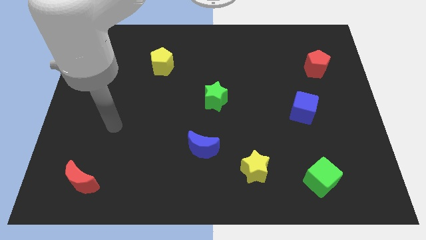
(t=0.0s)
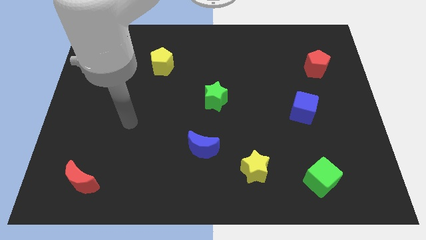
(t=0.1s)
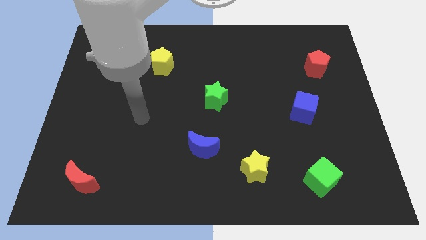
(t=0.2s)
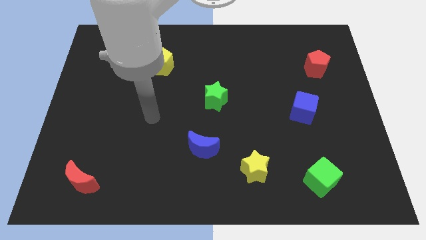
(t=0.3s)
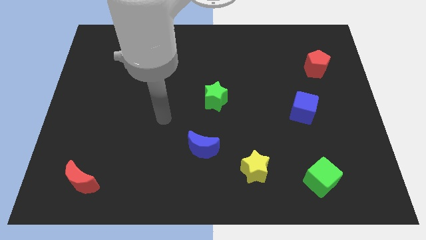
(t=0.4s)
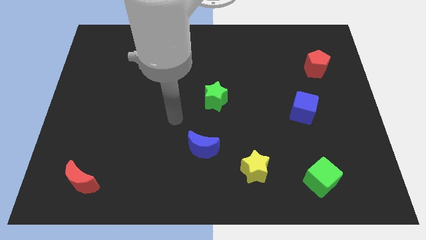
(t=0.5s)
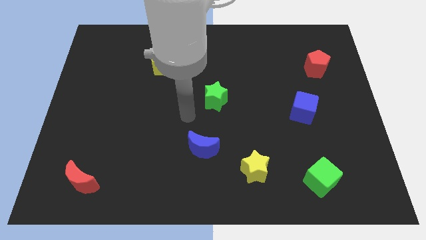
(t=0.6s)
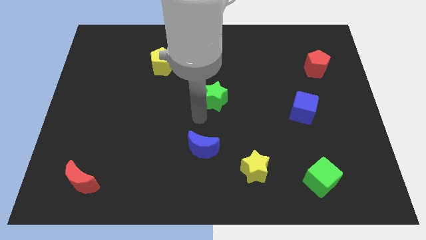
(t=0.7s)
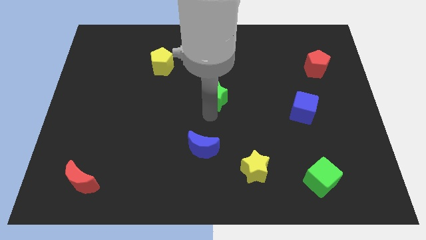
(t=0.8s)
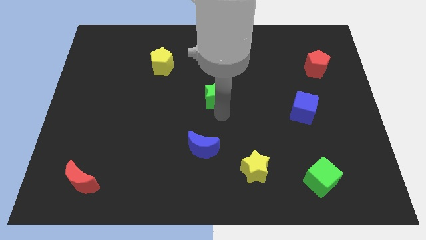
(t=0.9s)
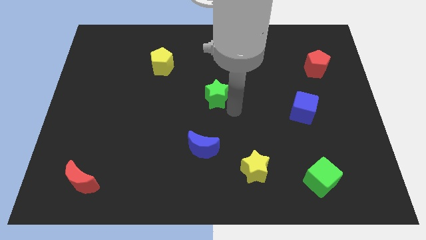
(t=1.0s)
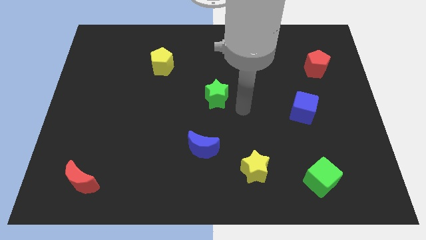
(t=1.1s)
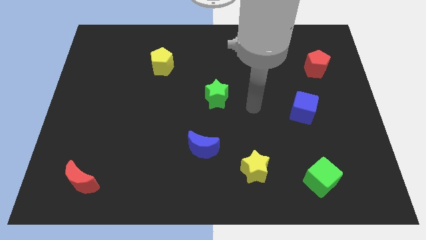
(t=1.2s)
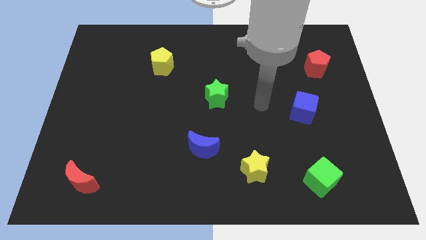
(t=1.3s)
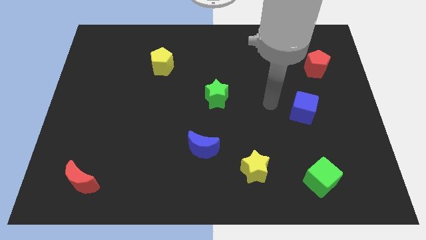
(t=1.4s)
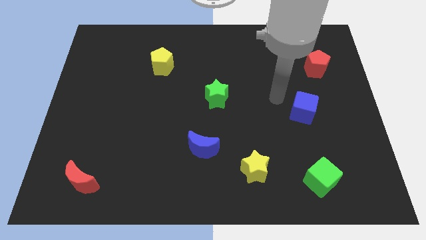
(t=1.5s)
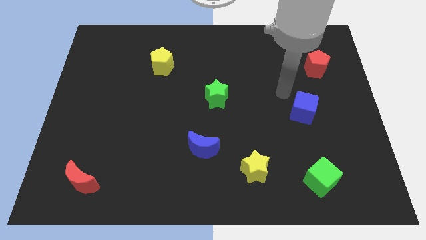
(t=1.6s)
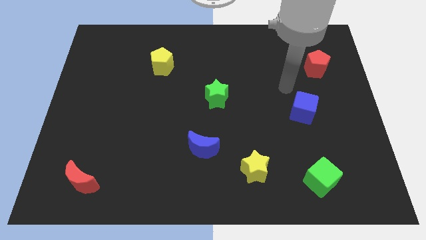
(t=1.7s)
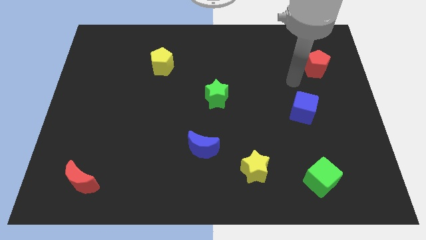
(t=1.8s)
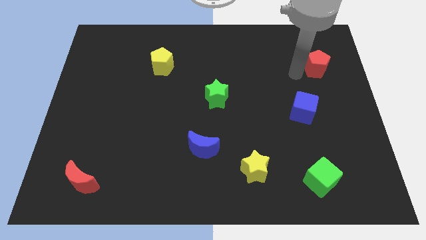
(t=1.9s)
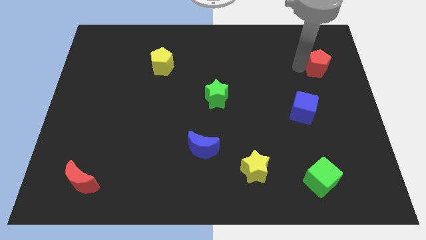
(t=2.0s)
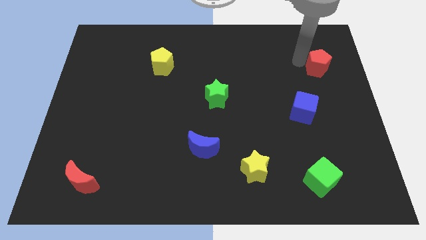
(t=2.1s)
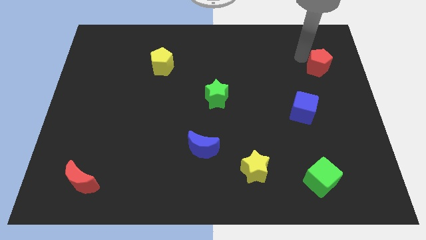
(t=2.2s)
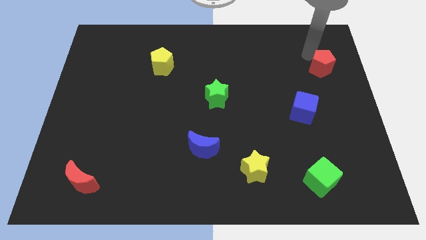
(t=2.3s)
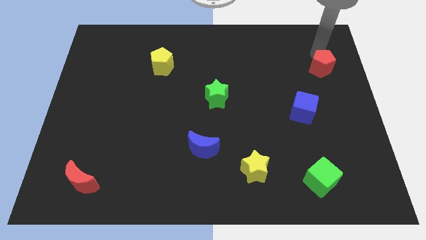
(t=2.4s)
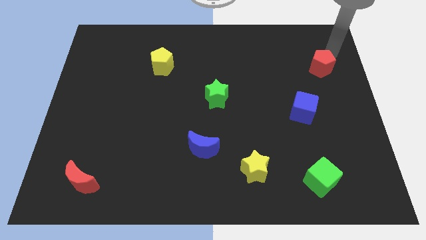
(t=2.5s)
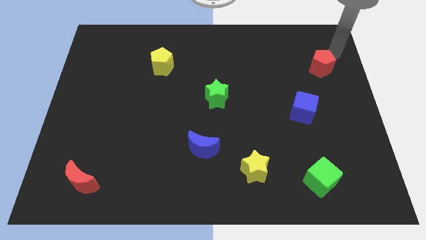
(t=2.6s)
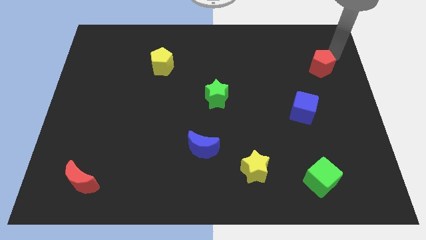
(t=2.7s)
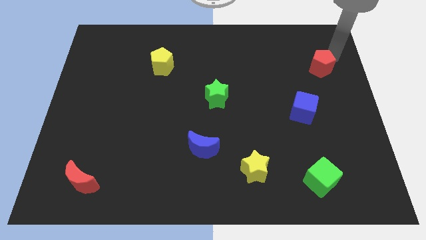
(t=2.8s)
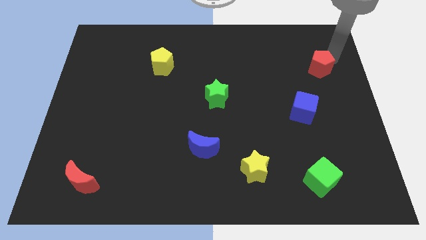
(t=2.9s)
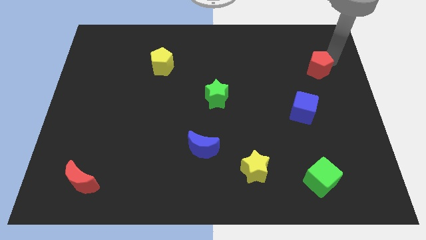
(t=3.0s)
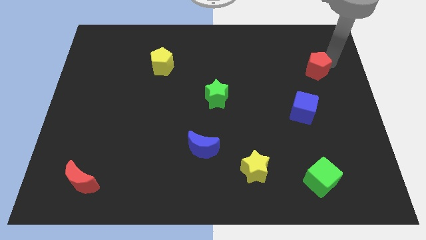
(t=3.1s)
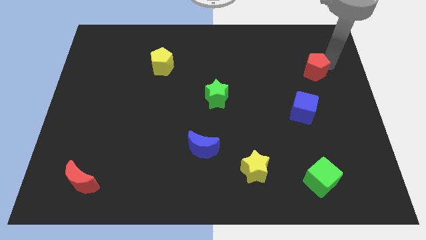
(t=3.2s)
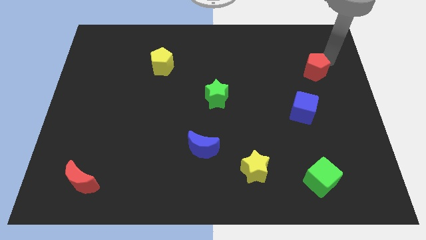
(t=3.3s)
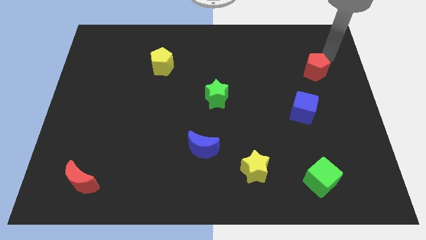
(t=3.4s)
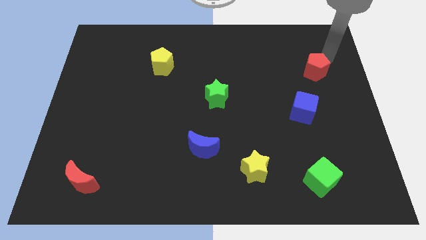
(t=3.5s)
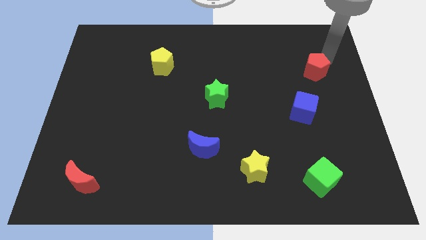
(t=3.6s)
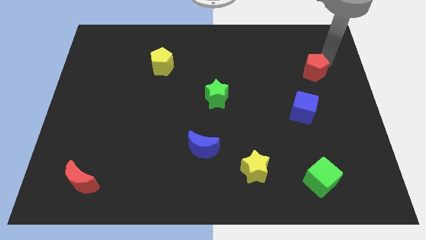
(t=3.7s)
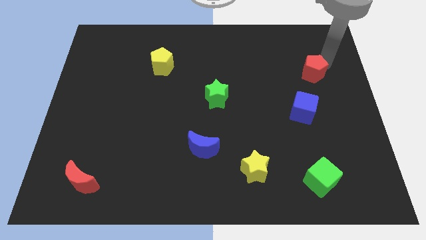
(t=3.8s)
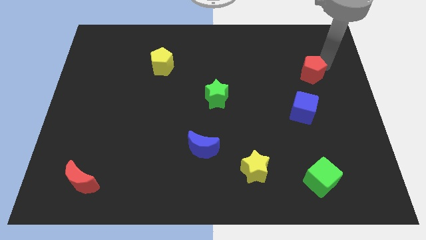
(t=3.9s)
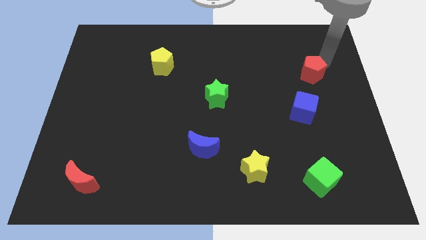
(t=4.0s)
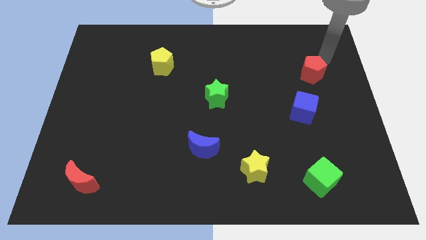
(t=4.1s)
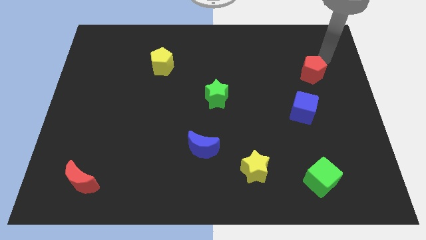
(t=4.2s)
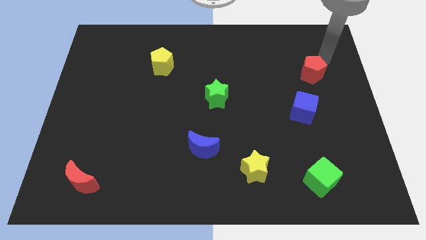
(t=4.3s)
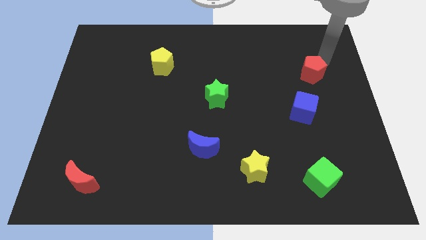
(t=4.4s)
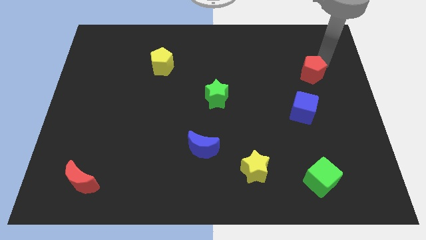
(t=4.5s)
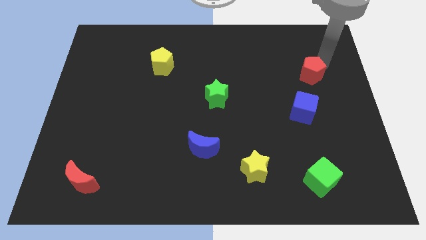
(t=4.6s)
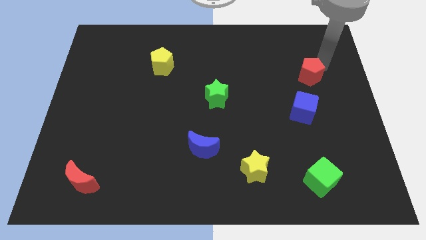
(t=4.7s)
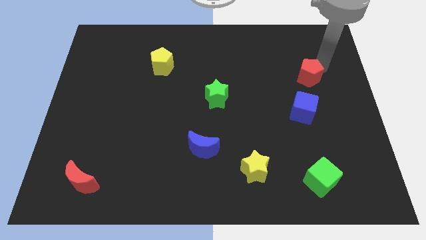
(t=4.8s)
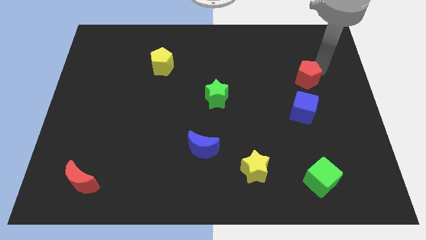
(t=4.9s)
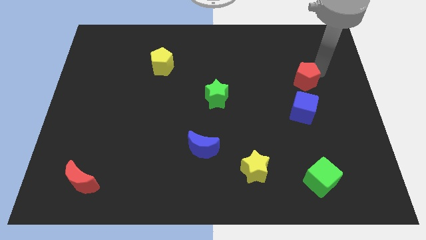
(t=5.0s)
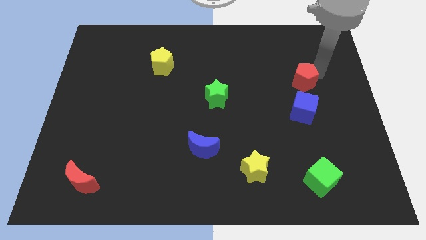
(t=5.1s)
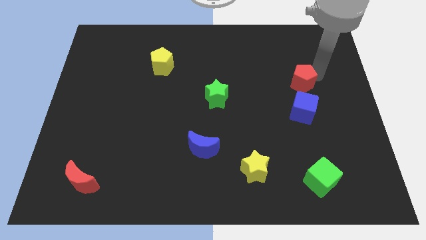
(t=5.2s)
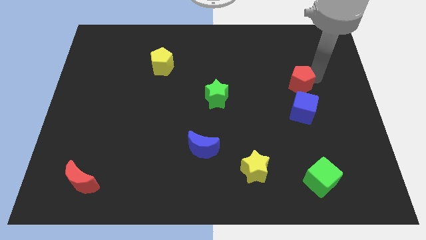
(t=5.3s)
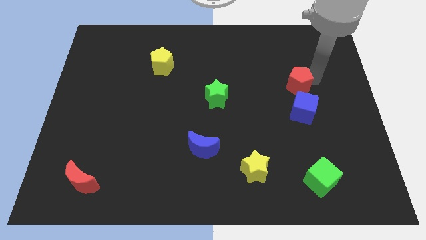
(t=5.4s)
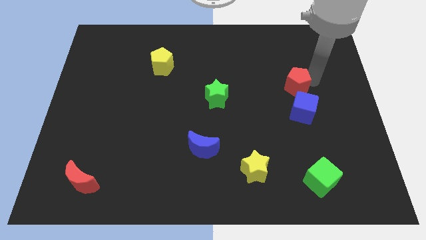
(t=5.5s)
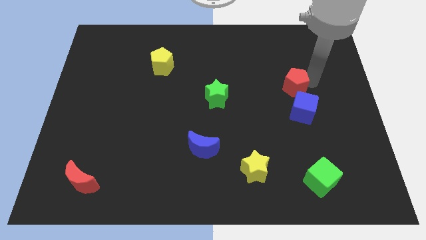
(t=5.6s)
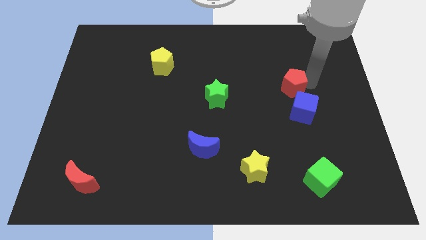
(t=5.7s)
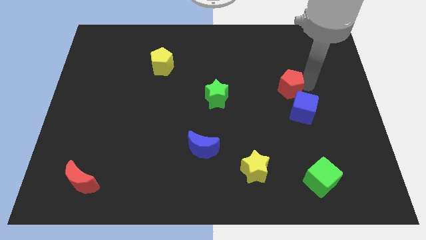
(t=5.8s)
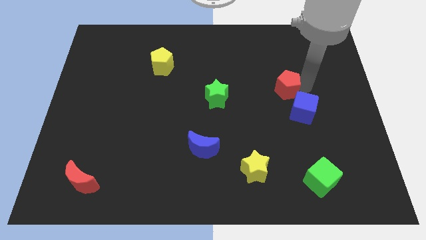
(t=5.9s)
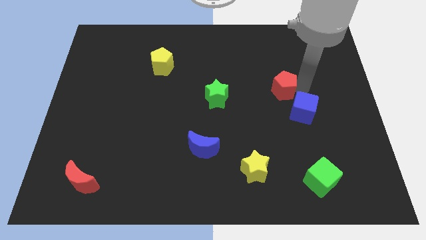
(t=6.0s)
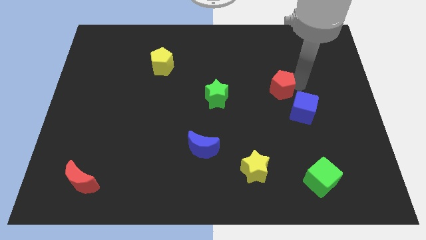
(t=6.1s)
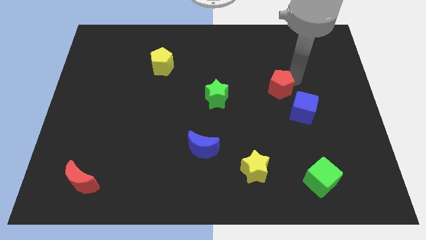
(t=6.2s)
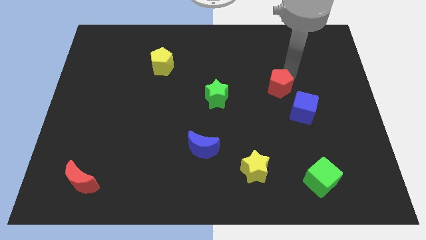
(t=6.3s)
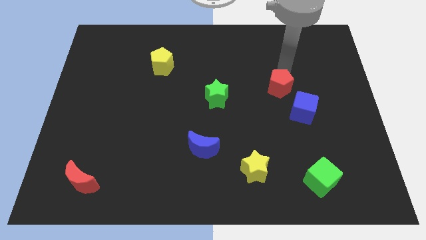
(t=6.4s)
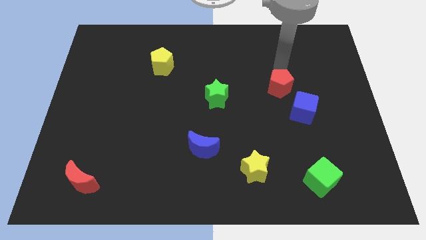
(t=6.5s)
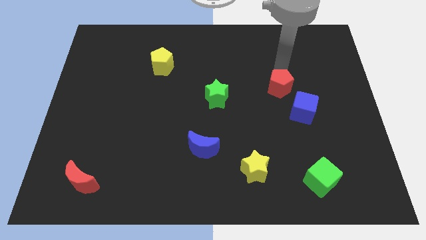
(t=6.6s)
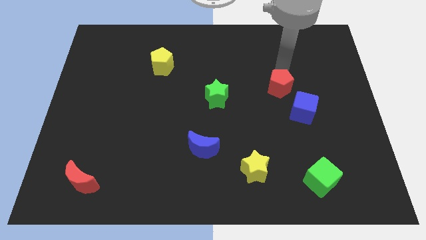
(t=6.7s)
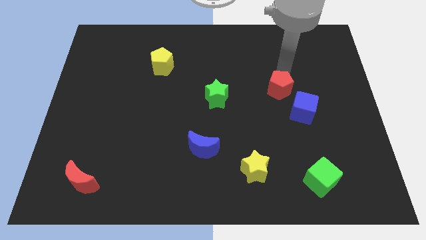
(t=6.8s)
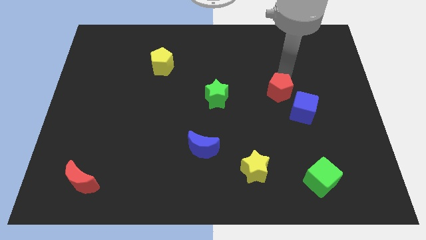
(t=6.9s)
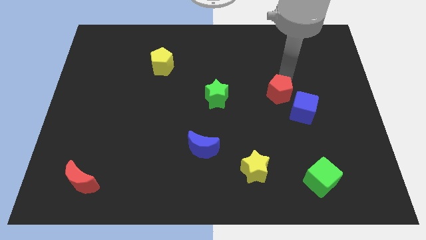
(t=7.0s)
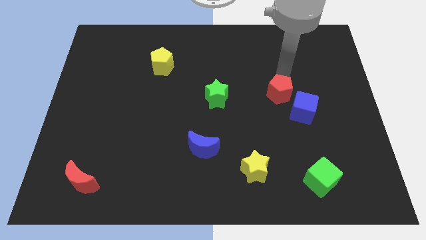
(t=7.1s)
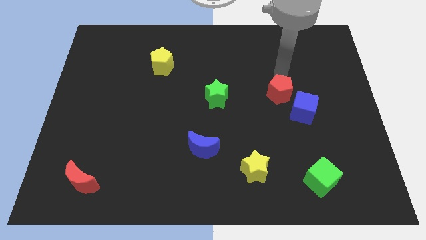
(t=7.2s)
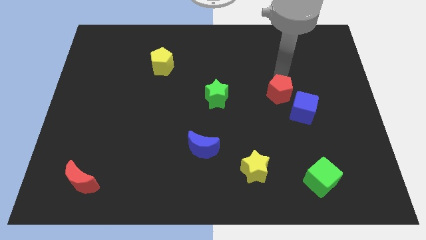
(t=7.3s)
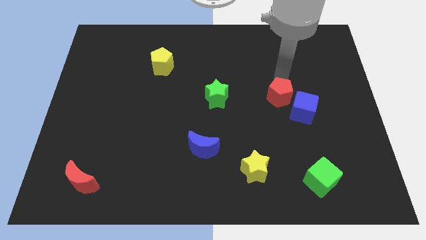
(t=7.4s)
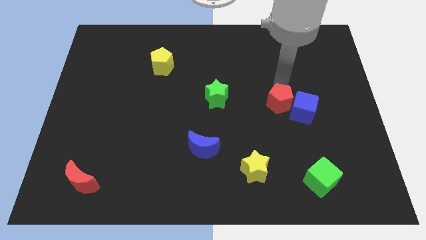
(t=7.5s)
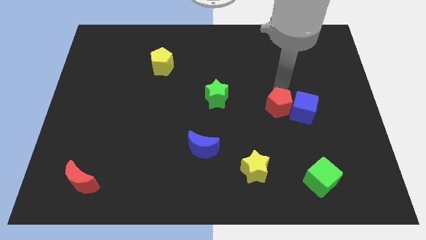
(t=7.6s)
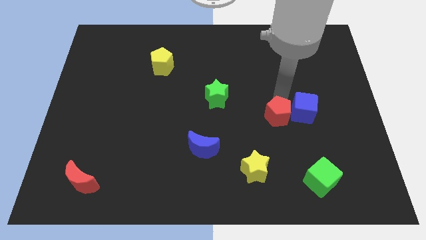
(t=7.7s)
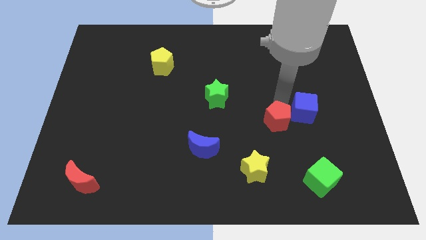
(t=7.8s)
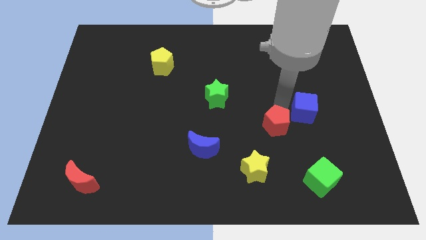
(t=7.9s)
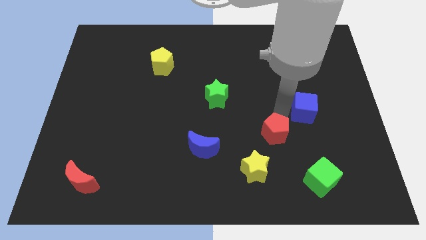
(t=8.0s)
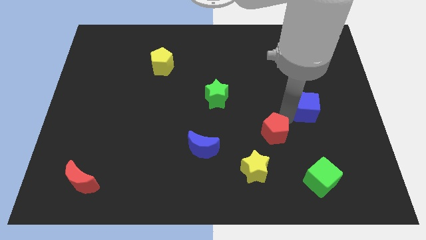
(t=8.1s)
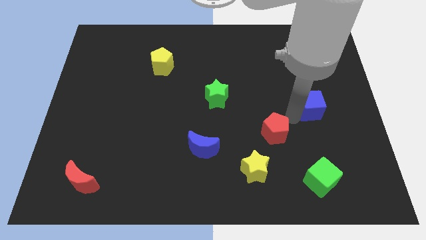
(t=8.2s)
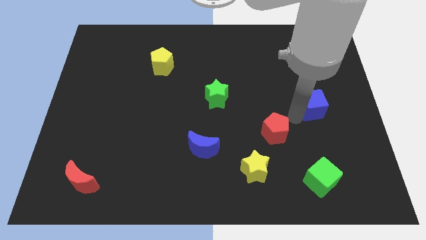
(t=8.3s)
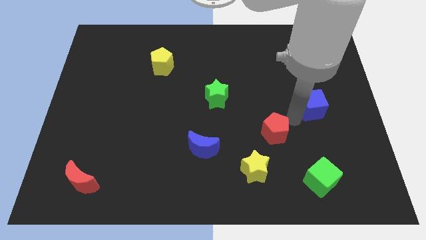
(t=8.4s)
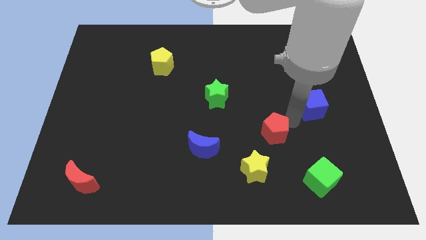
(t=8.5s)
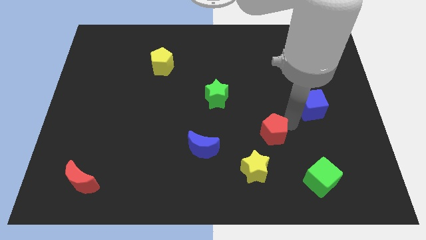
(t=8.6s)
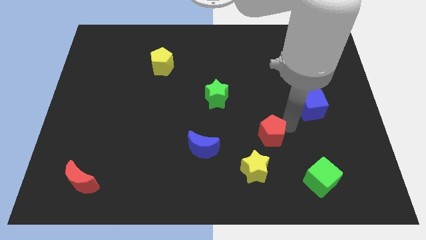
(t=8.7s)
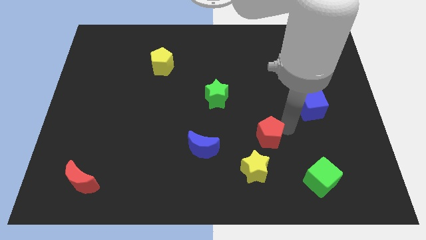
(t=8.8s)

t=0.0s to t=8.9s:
push the red pentagon to the right of the blue moon
